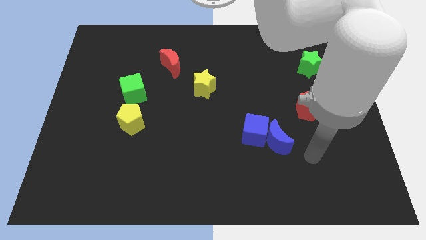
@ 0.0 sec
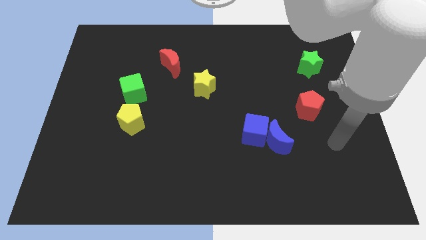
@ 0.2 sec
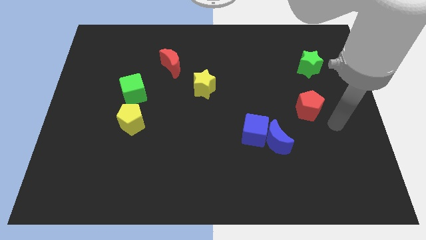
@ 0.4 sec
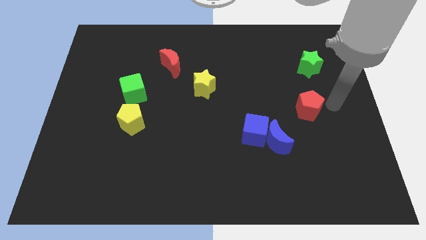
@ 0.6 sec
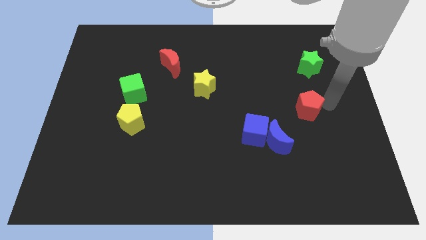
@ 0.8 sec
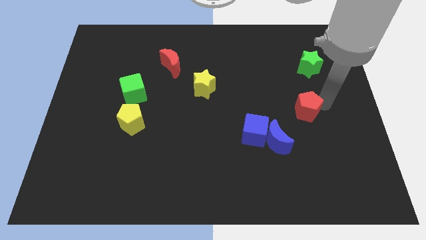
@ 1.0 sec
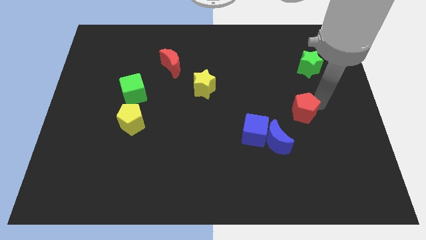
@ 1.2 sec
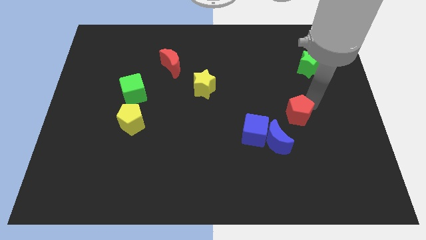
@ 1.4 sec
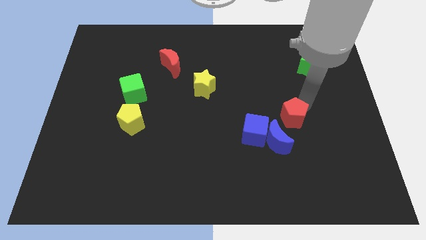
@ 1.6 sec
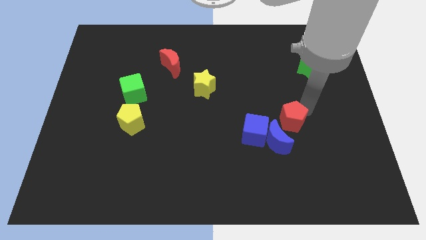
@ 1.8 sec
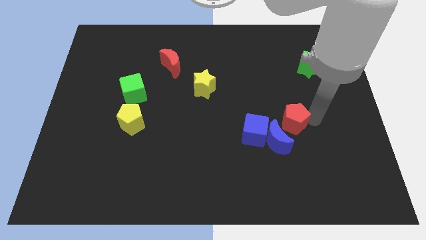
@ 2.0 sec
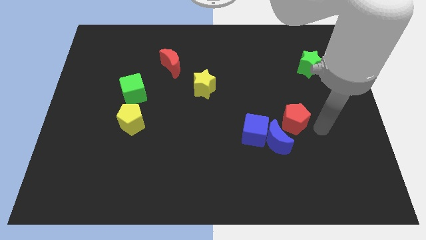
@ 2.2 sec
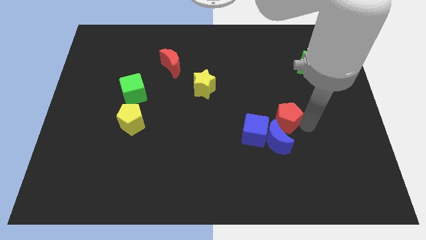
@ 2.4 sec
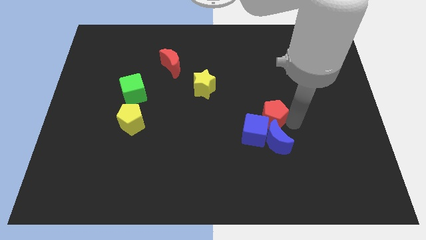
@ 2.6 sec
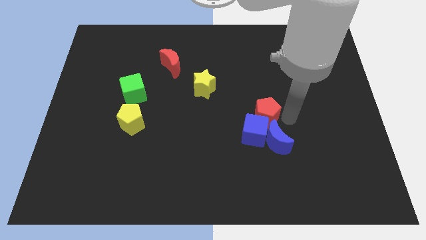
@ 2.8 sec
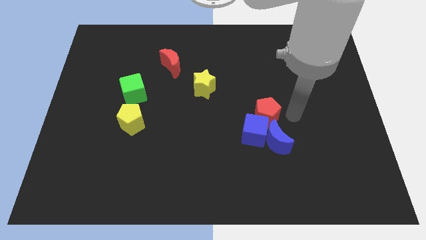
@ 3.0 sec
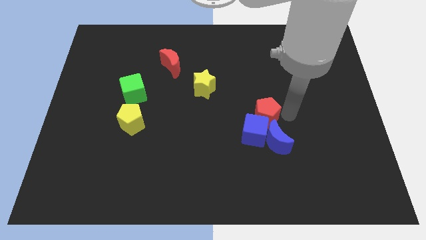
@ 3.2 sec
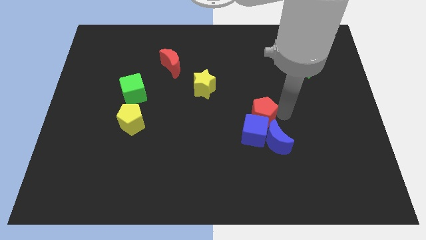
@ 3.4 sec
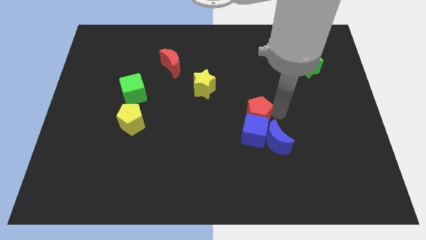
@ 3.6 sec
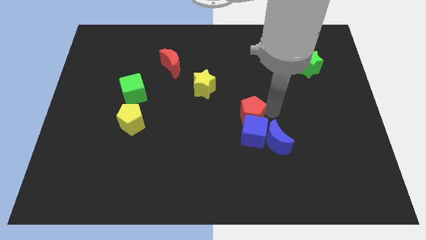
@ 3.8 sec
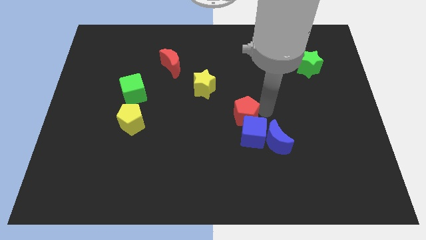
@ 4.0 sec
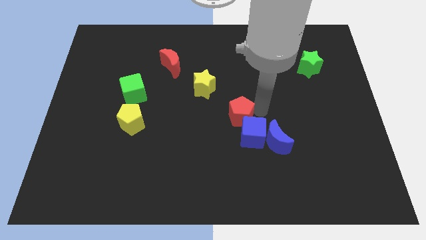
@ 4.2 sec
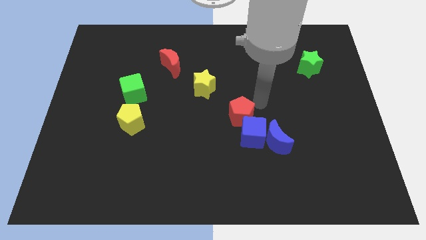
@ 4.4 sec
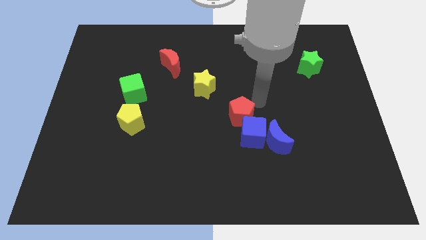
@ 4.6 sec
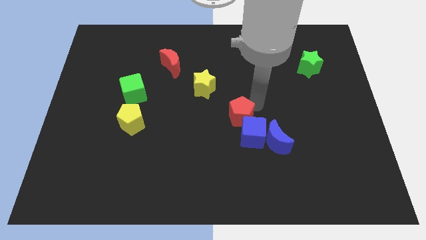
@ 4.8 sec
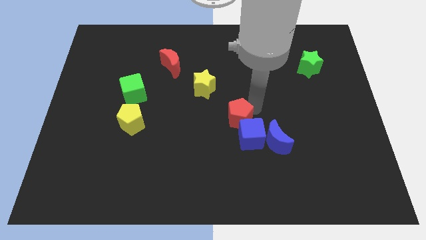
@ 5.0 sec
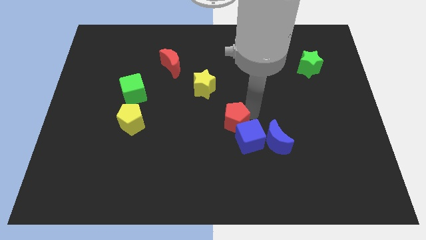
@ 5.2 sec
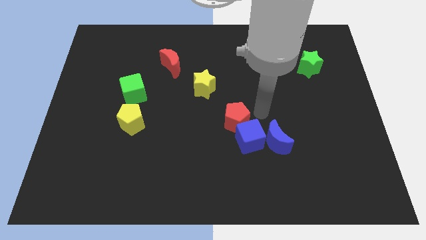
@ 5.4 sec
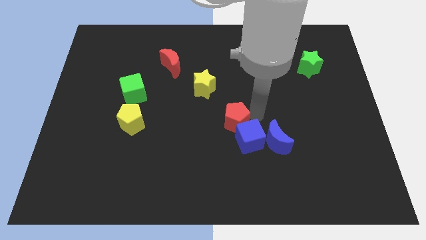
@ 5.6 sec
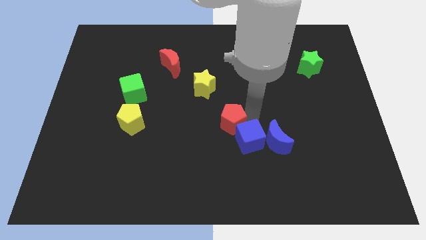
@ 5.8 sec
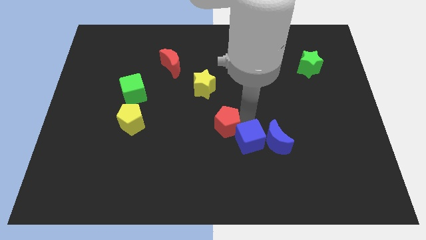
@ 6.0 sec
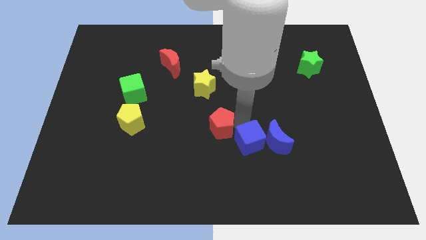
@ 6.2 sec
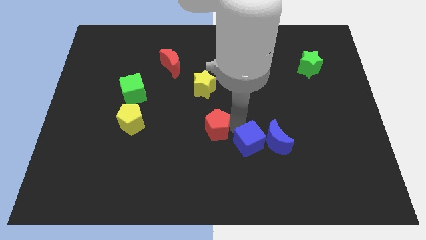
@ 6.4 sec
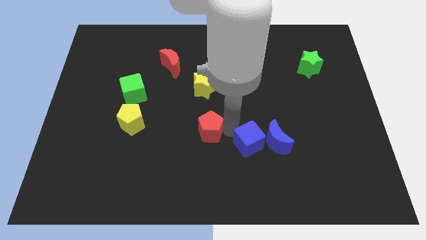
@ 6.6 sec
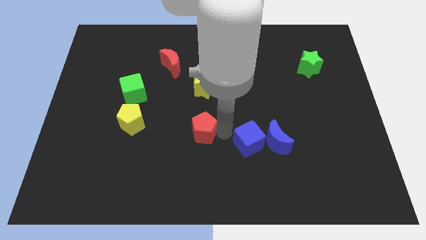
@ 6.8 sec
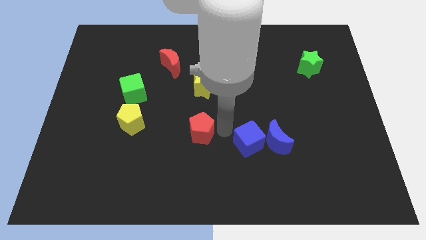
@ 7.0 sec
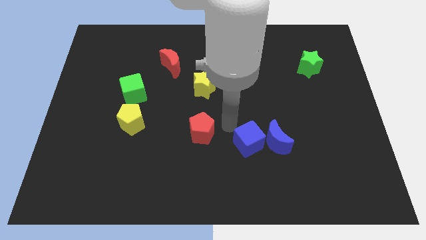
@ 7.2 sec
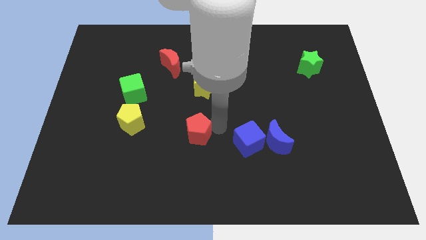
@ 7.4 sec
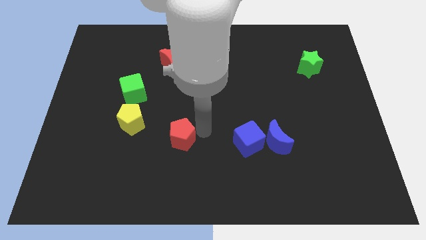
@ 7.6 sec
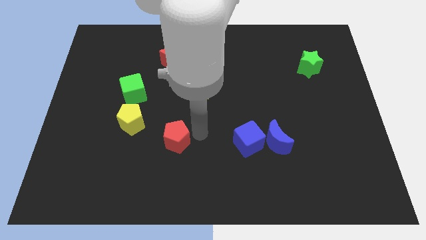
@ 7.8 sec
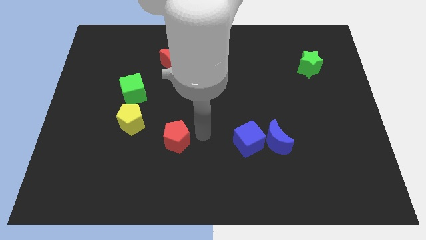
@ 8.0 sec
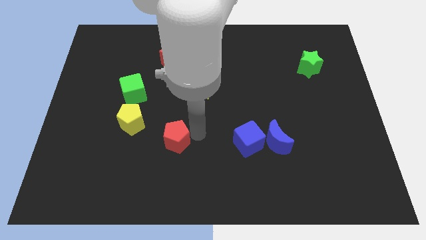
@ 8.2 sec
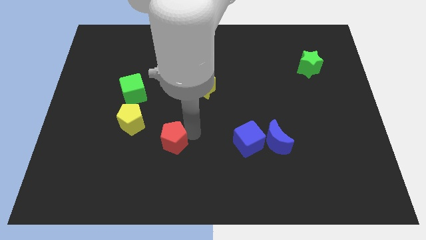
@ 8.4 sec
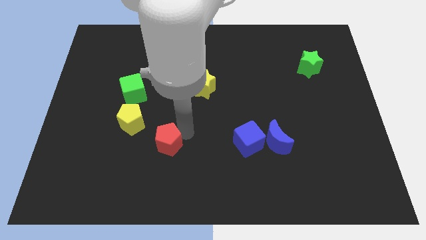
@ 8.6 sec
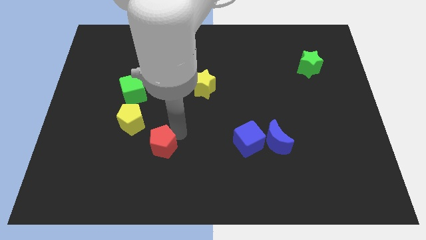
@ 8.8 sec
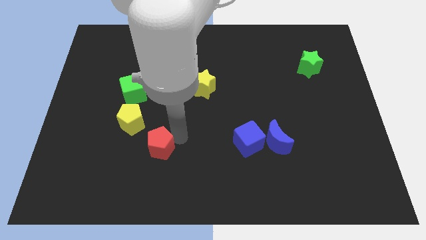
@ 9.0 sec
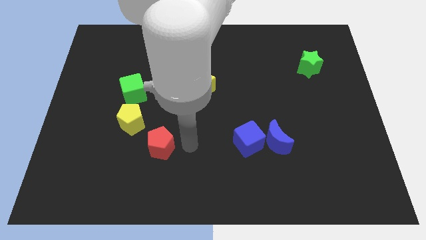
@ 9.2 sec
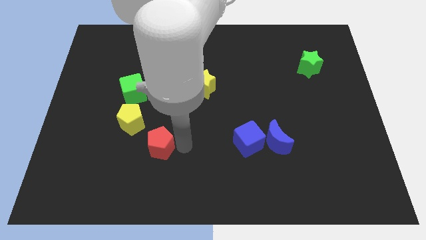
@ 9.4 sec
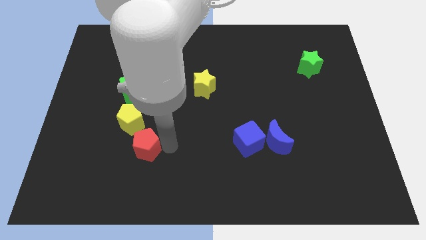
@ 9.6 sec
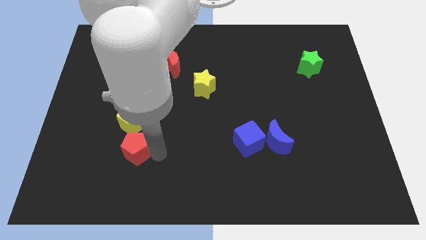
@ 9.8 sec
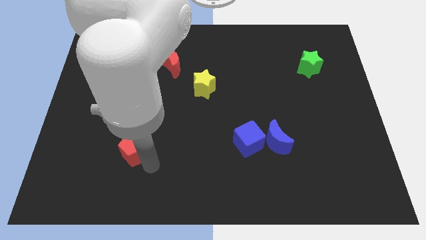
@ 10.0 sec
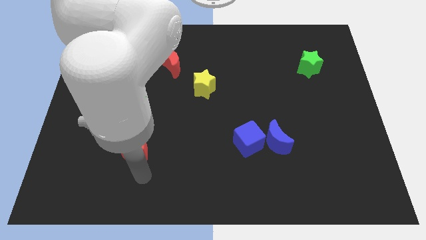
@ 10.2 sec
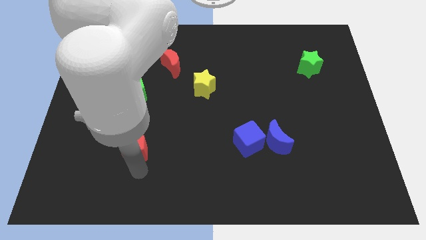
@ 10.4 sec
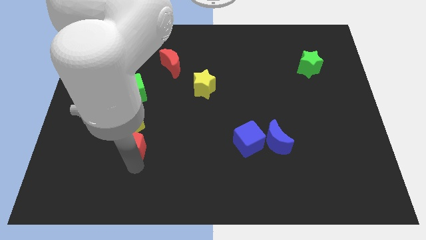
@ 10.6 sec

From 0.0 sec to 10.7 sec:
push the red pentagon below the green cube

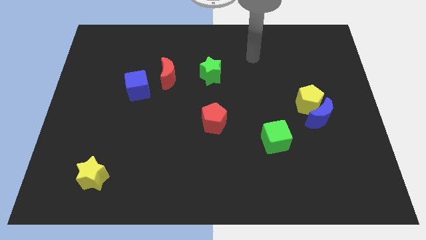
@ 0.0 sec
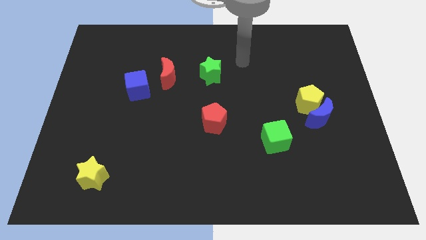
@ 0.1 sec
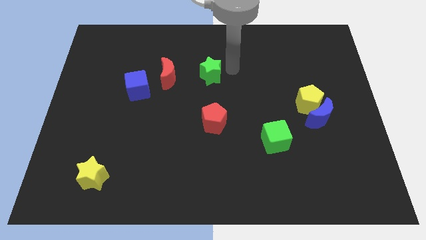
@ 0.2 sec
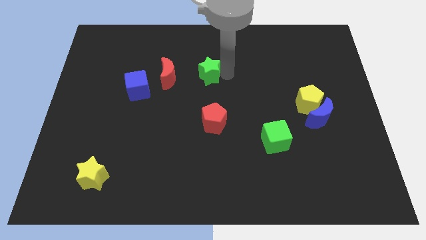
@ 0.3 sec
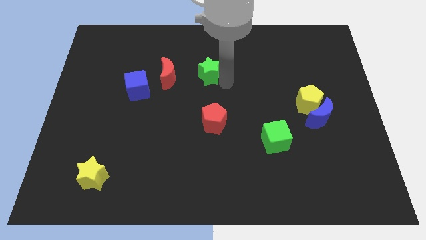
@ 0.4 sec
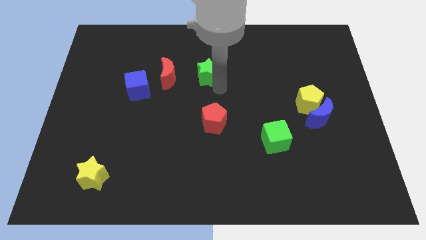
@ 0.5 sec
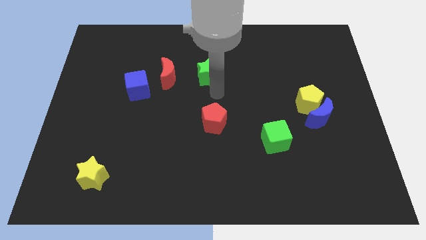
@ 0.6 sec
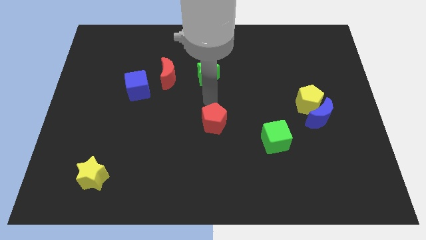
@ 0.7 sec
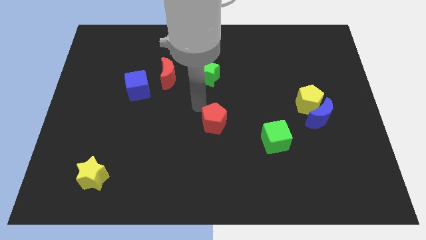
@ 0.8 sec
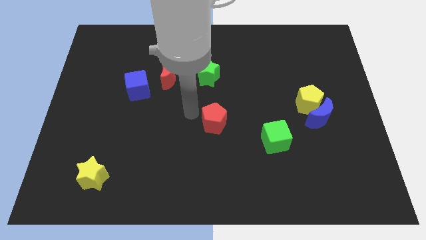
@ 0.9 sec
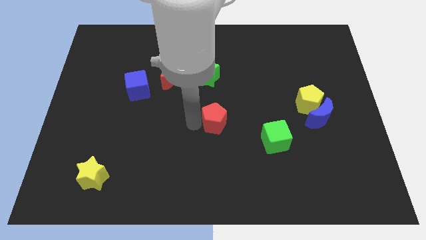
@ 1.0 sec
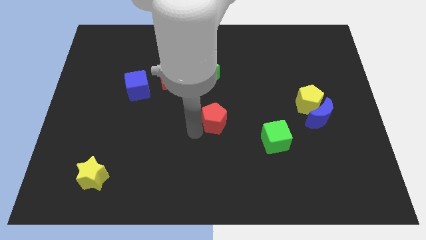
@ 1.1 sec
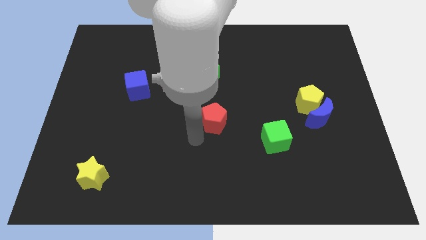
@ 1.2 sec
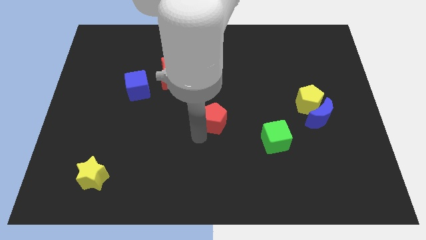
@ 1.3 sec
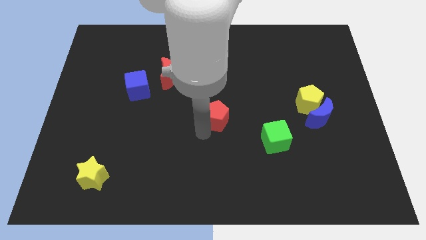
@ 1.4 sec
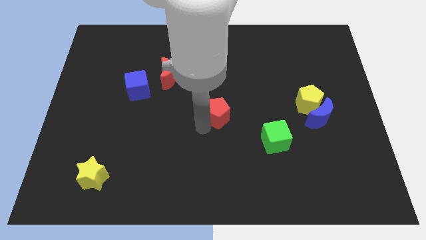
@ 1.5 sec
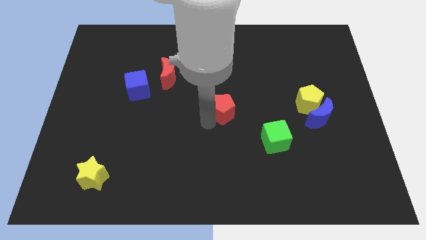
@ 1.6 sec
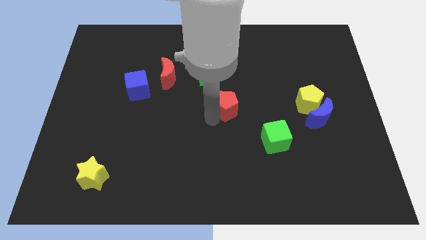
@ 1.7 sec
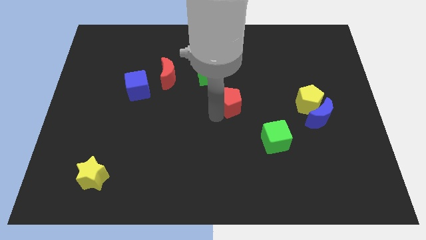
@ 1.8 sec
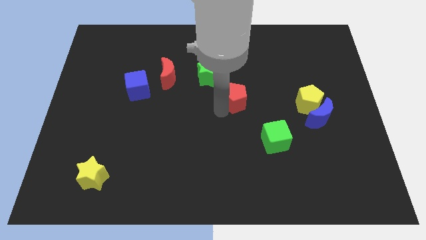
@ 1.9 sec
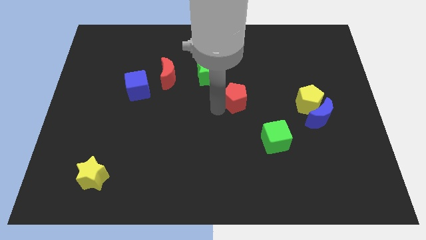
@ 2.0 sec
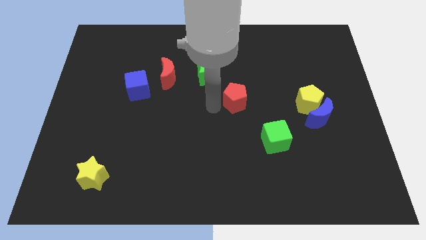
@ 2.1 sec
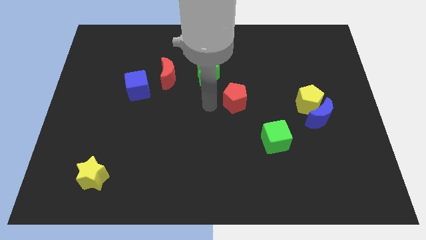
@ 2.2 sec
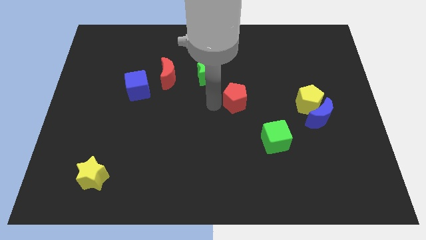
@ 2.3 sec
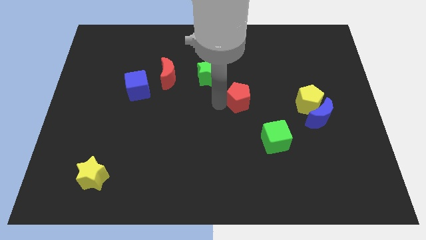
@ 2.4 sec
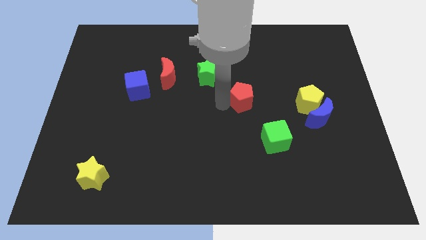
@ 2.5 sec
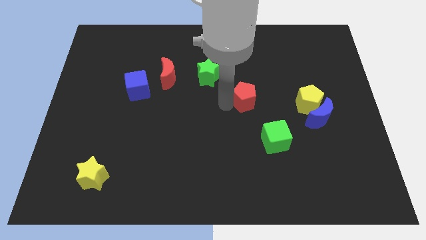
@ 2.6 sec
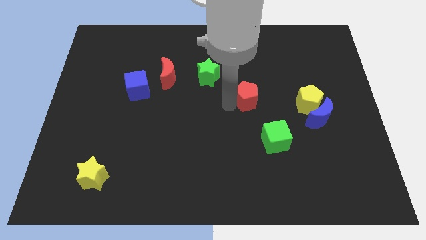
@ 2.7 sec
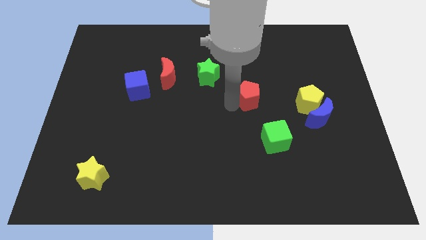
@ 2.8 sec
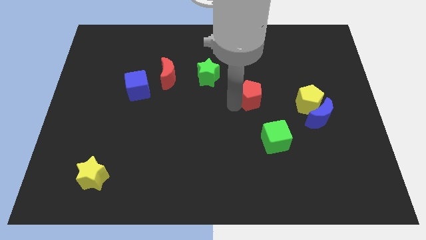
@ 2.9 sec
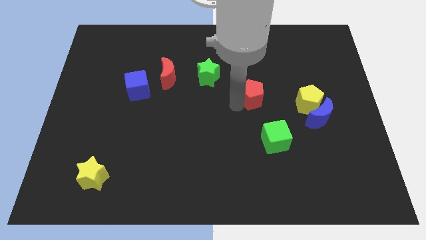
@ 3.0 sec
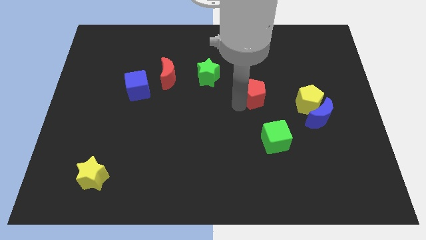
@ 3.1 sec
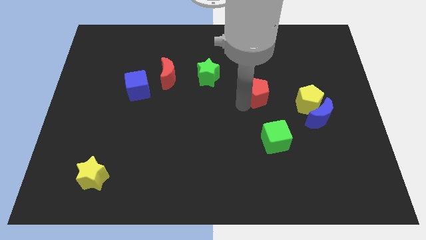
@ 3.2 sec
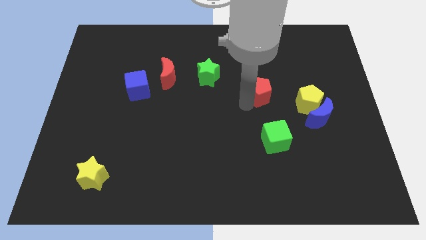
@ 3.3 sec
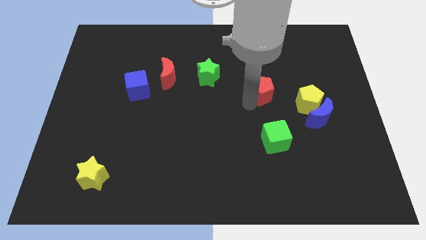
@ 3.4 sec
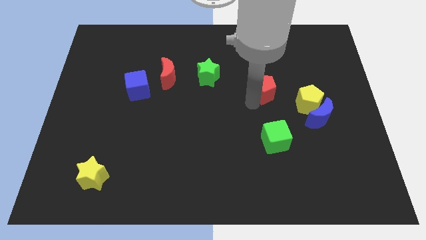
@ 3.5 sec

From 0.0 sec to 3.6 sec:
move the red pentagon diagonally up and to the left of the yellow pentagon
